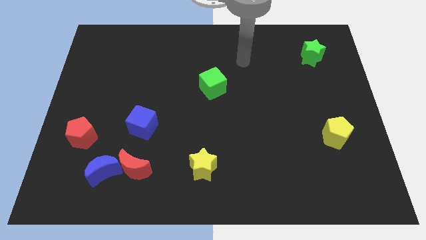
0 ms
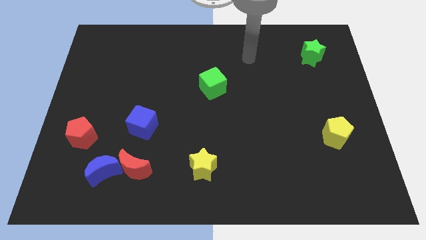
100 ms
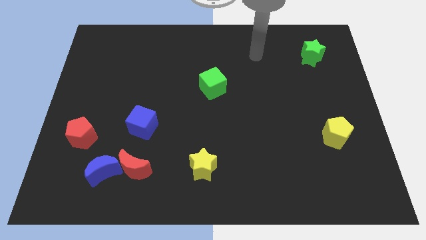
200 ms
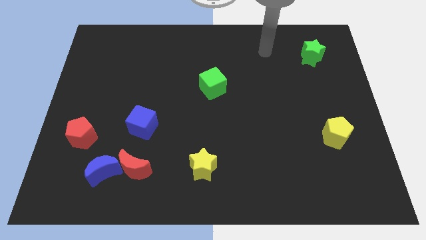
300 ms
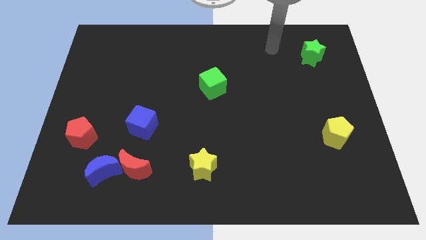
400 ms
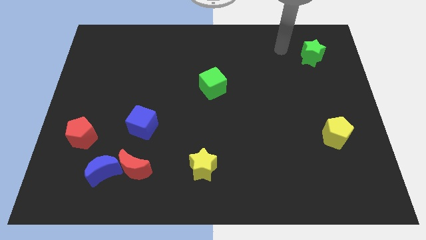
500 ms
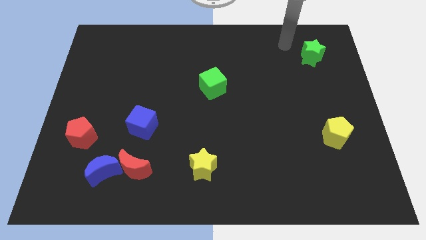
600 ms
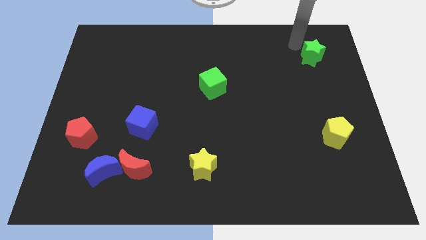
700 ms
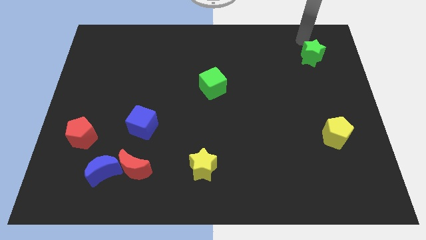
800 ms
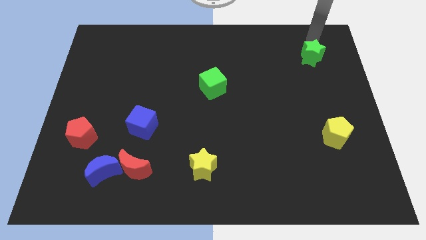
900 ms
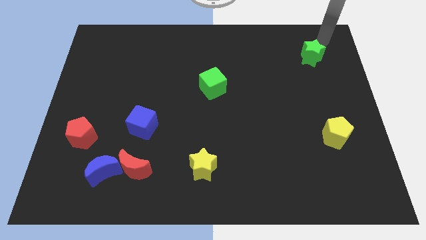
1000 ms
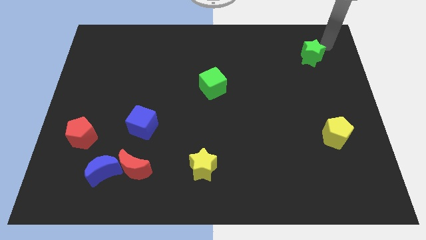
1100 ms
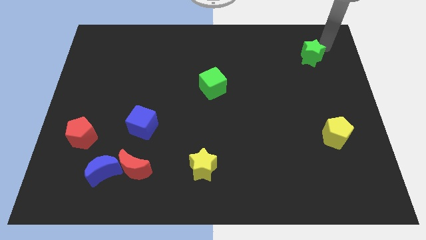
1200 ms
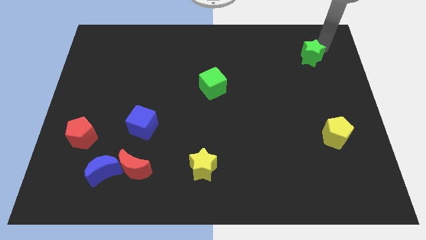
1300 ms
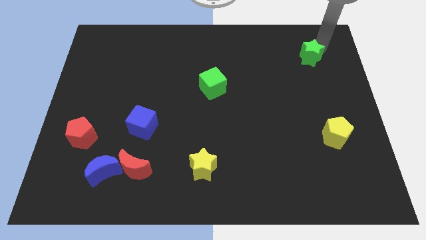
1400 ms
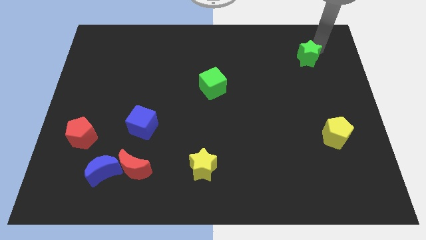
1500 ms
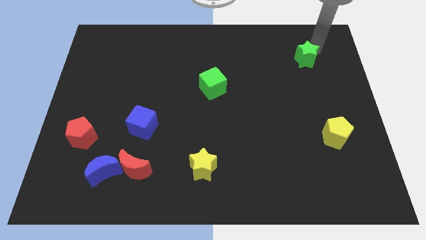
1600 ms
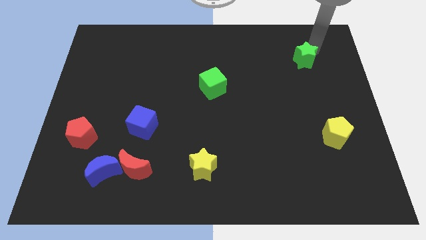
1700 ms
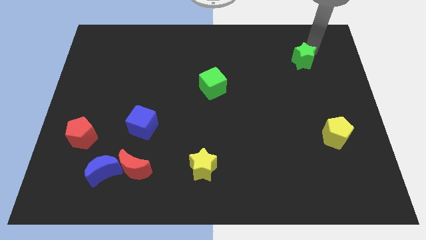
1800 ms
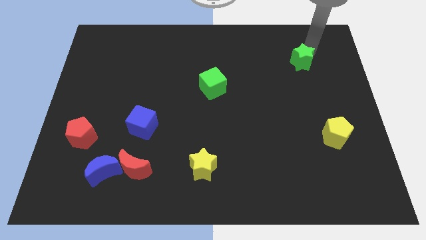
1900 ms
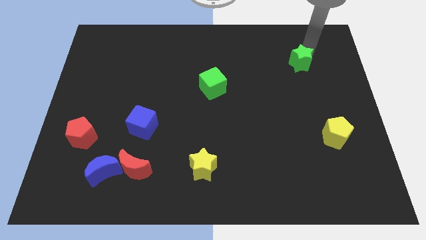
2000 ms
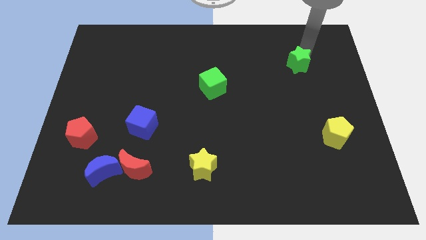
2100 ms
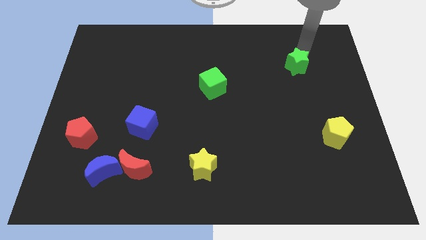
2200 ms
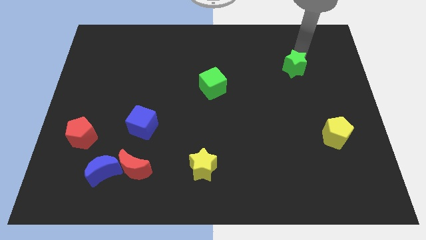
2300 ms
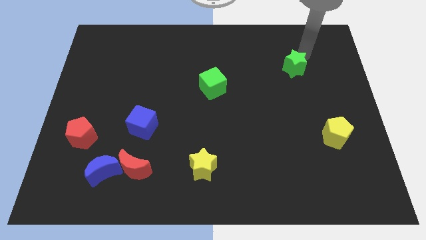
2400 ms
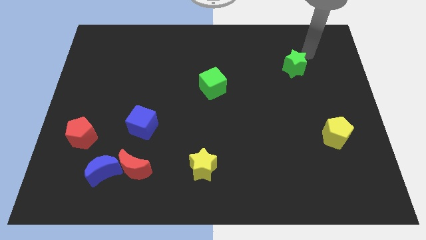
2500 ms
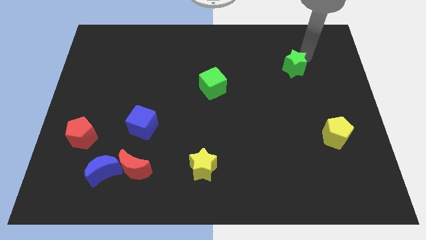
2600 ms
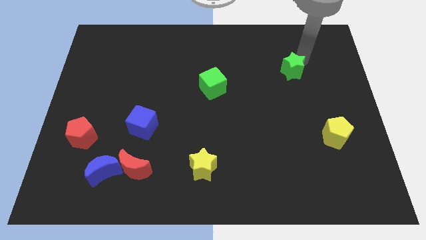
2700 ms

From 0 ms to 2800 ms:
move the green star diagonally down and to the left somewhat

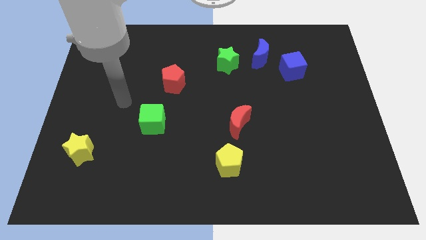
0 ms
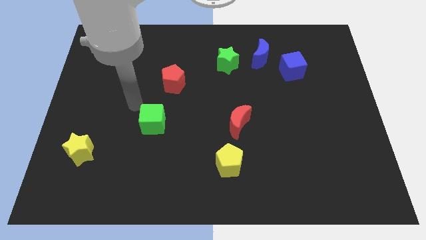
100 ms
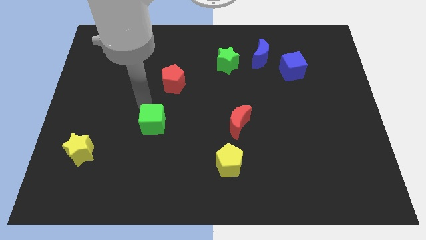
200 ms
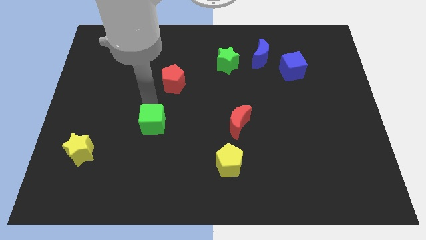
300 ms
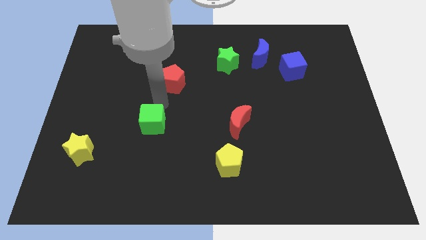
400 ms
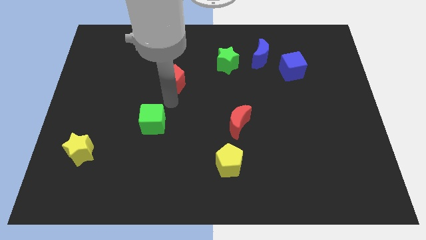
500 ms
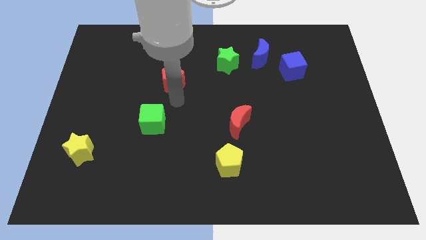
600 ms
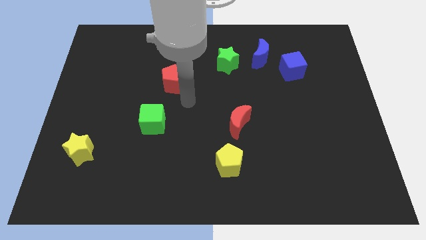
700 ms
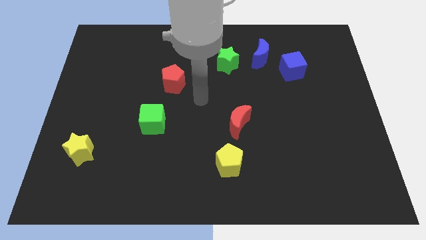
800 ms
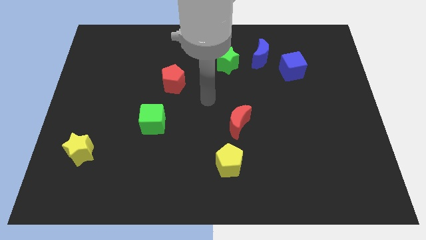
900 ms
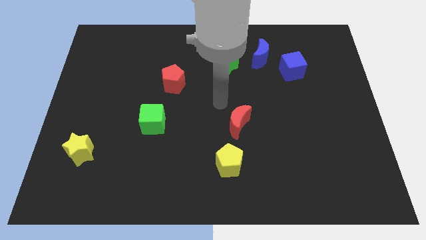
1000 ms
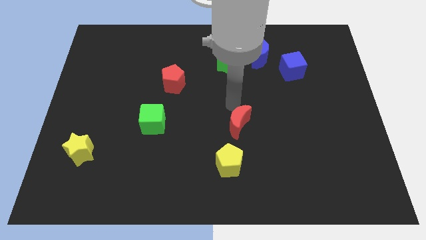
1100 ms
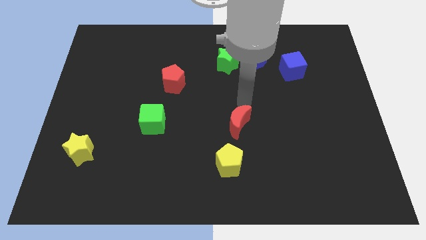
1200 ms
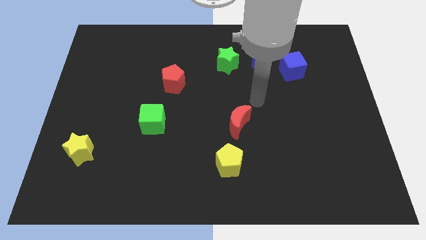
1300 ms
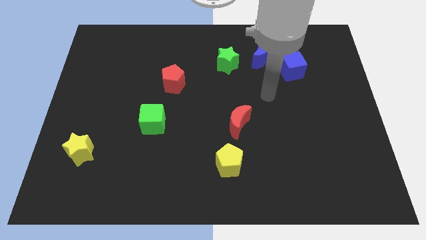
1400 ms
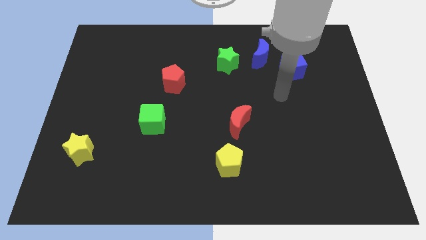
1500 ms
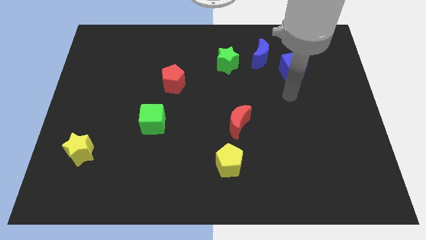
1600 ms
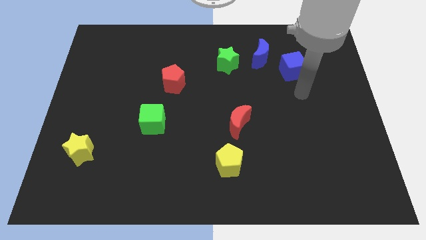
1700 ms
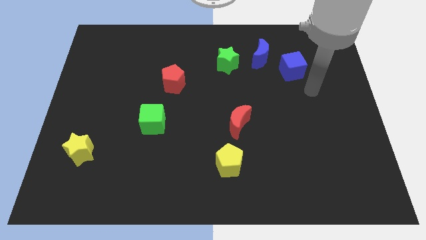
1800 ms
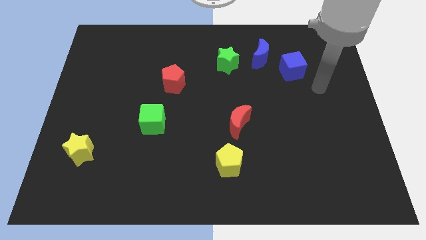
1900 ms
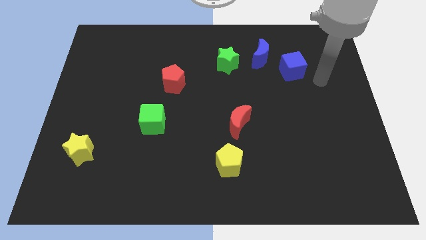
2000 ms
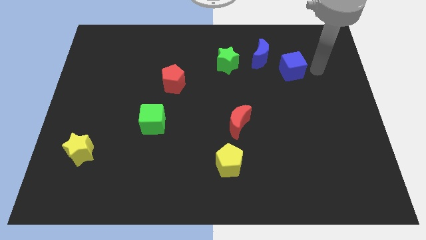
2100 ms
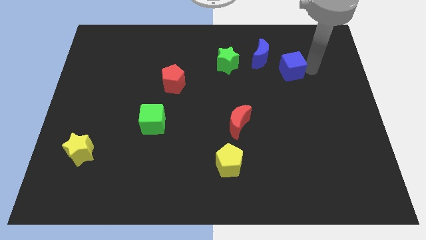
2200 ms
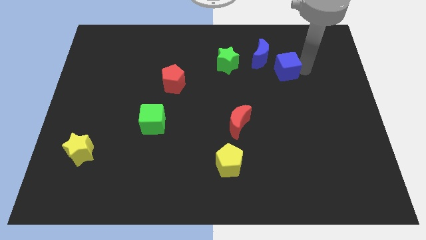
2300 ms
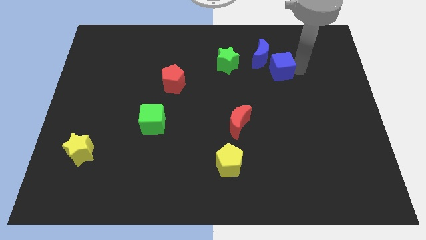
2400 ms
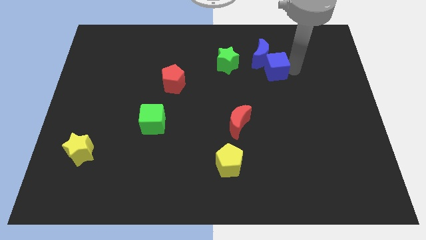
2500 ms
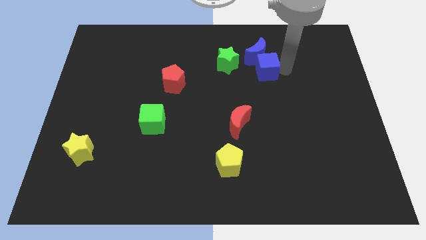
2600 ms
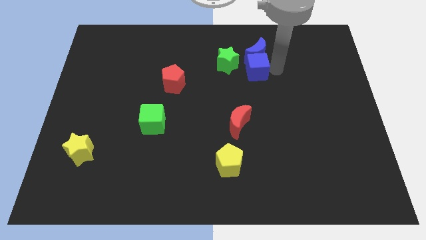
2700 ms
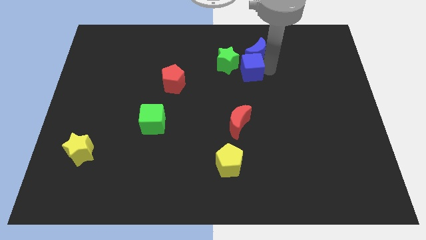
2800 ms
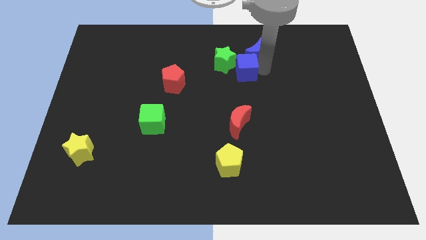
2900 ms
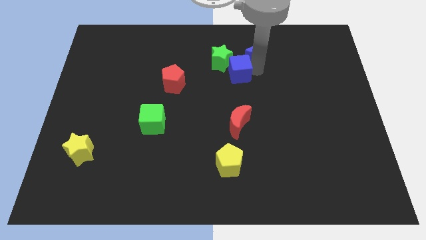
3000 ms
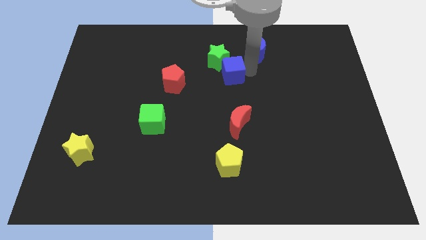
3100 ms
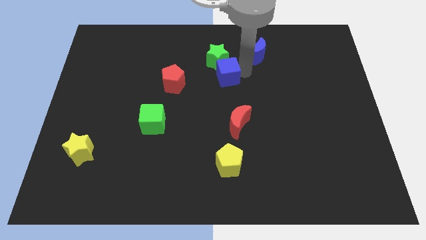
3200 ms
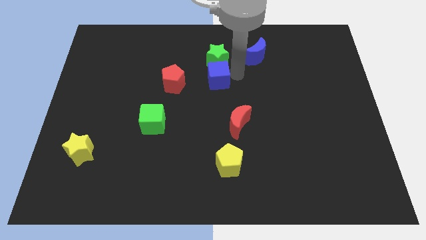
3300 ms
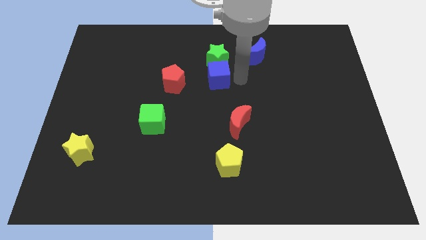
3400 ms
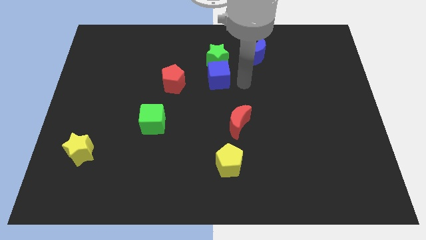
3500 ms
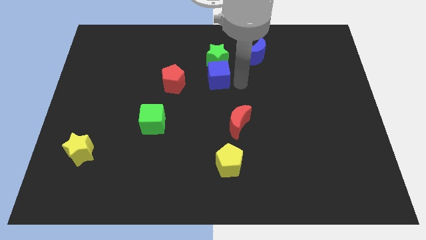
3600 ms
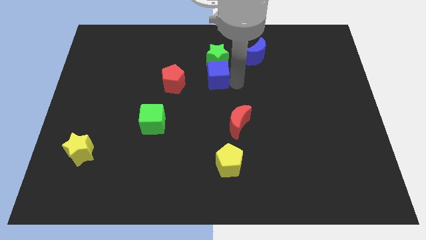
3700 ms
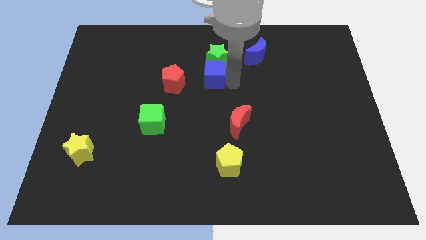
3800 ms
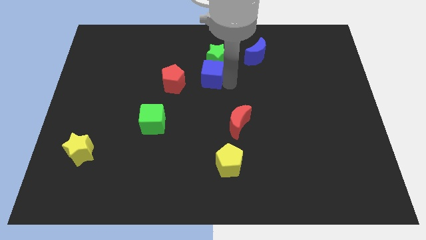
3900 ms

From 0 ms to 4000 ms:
slide the blue cube left

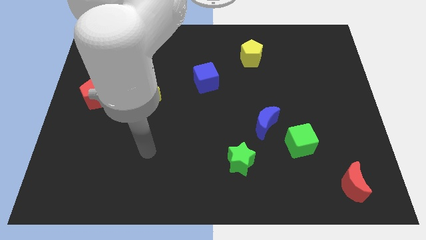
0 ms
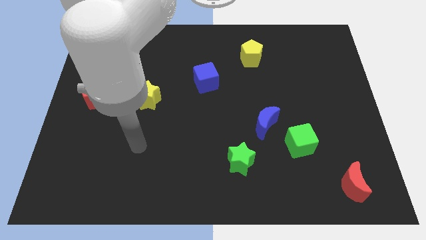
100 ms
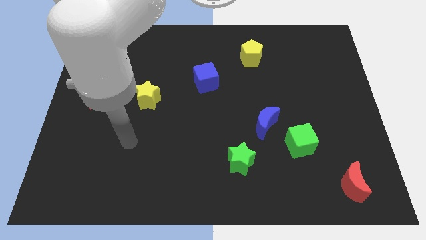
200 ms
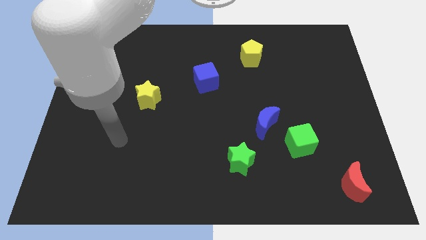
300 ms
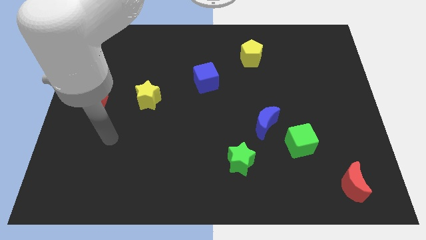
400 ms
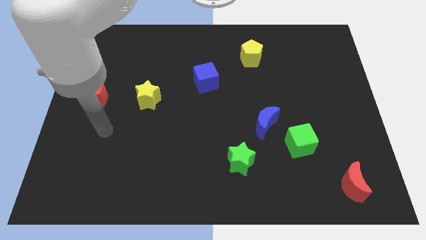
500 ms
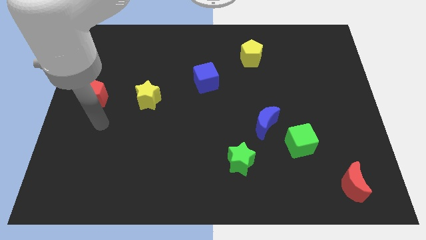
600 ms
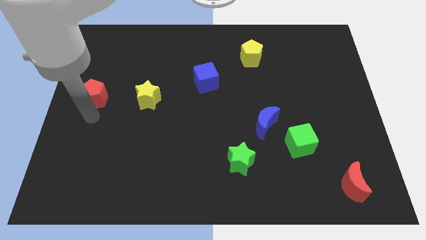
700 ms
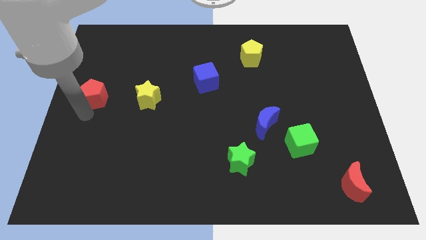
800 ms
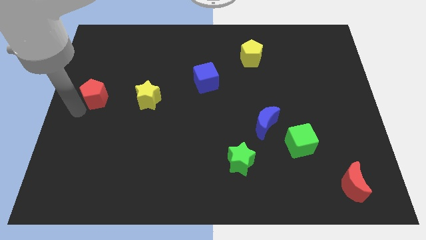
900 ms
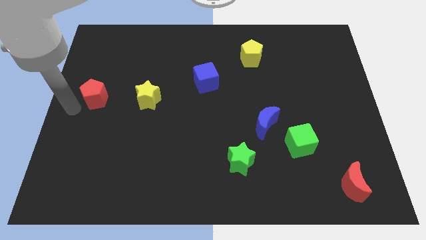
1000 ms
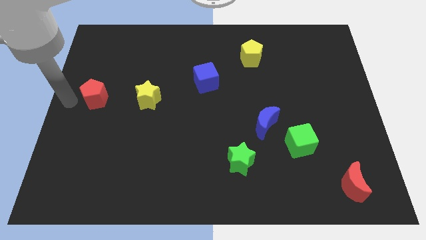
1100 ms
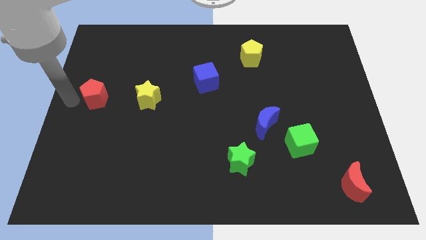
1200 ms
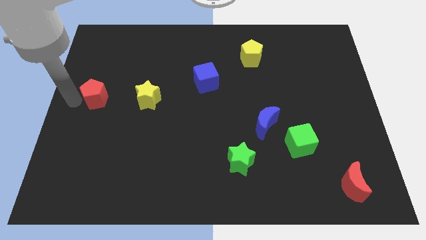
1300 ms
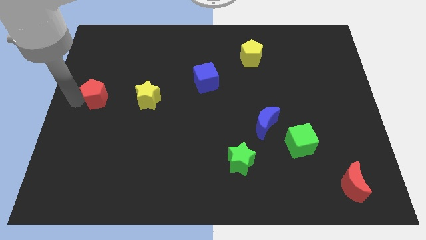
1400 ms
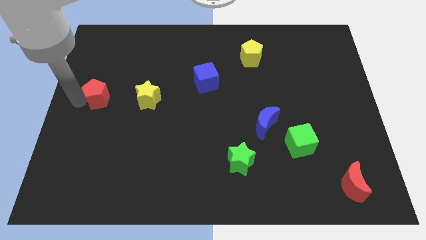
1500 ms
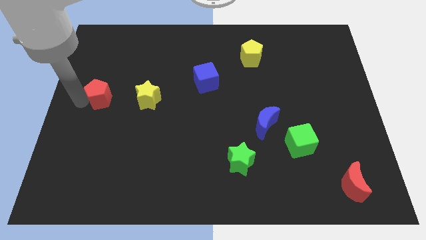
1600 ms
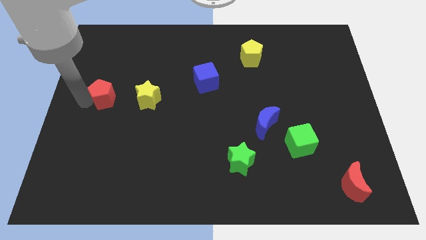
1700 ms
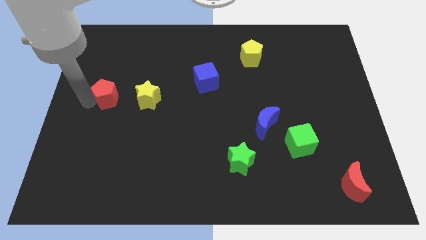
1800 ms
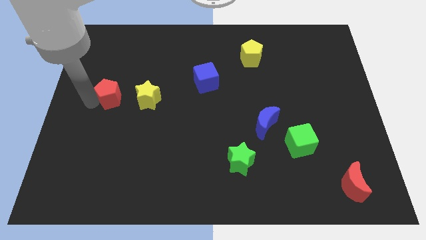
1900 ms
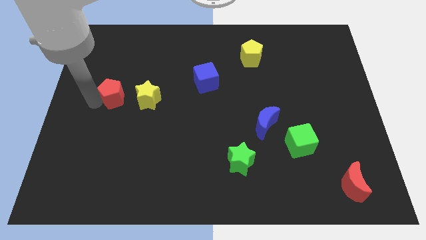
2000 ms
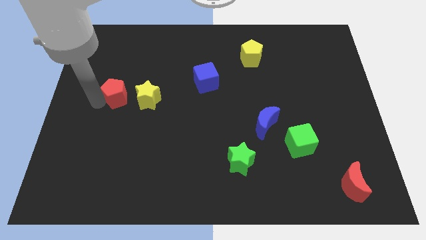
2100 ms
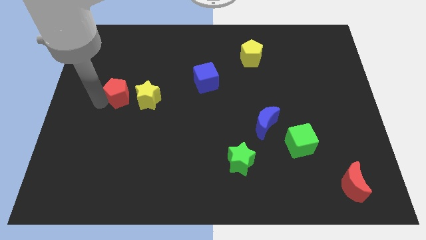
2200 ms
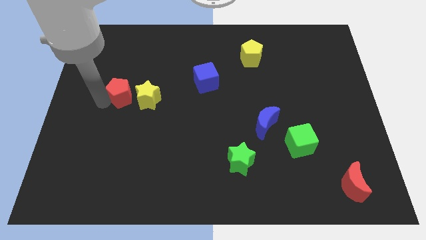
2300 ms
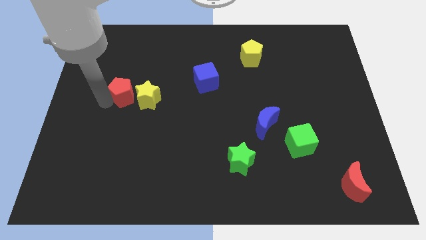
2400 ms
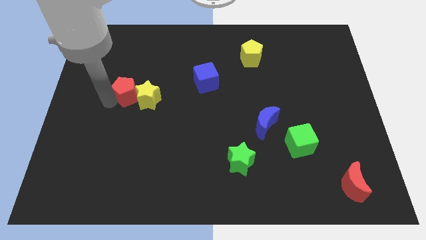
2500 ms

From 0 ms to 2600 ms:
slightly slide the red pentagon to the right
